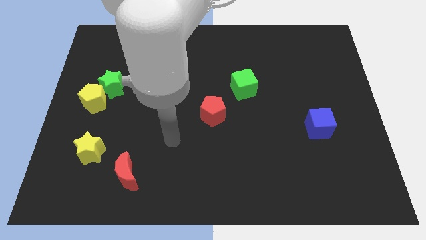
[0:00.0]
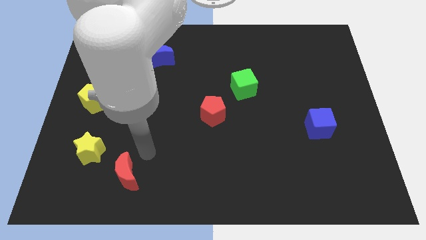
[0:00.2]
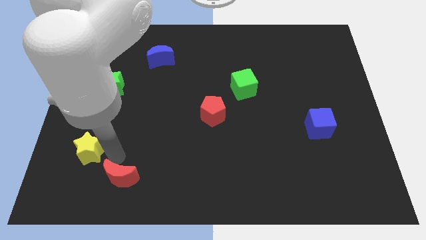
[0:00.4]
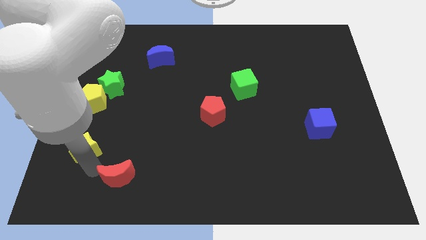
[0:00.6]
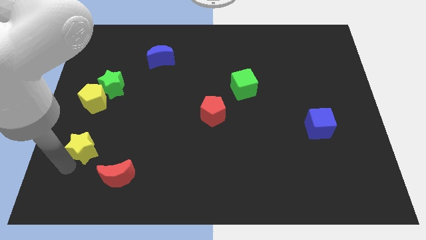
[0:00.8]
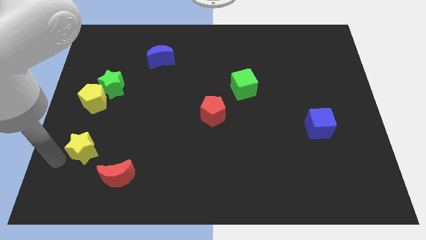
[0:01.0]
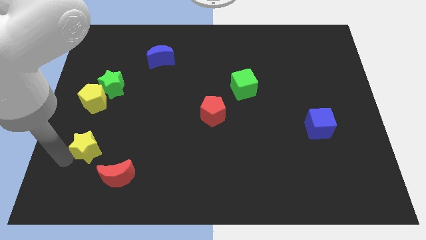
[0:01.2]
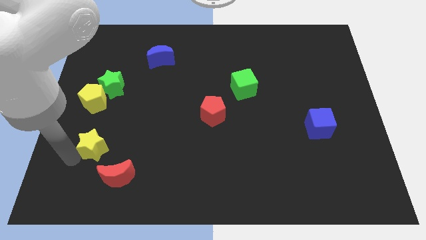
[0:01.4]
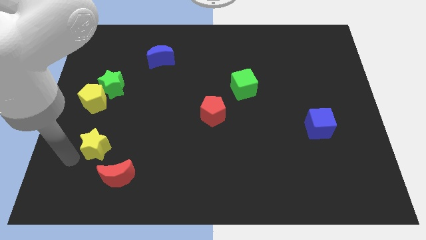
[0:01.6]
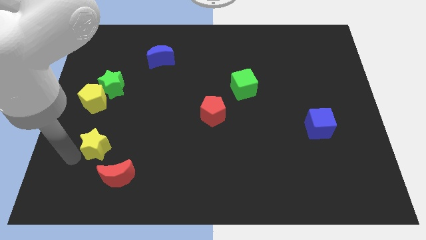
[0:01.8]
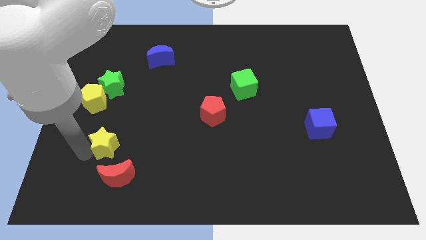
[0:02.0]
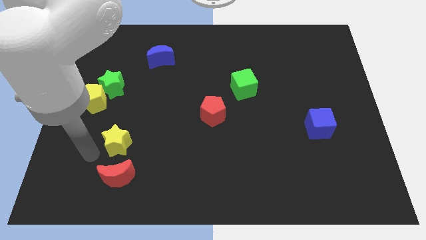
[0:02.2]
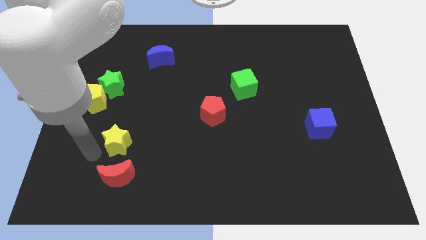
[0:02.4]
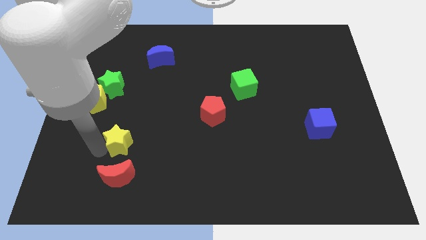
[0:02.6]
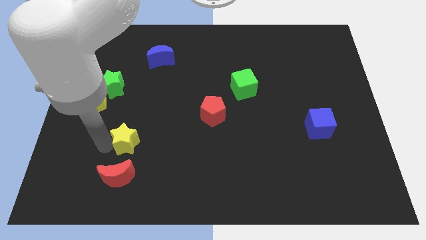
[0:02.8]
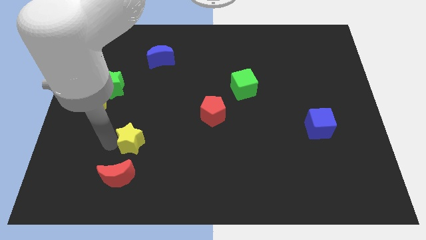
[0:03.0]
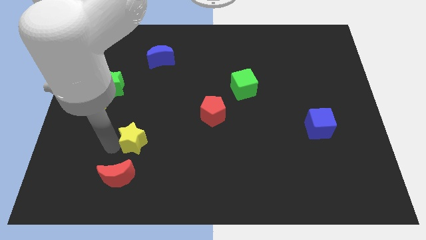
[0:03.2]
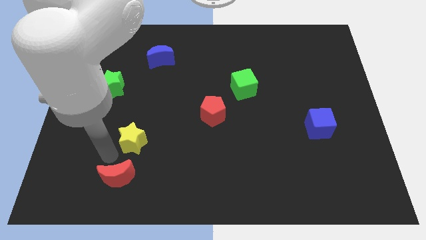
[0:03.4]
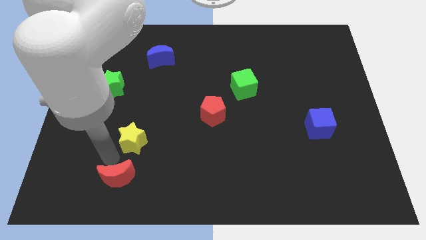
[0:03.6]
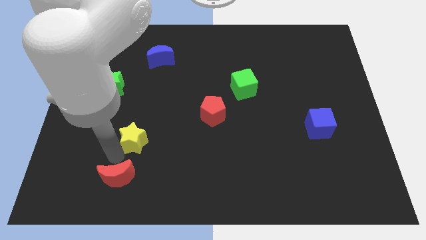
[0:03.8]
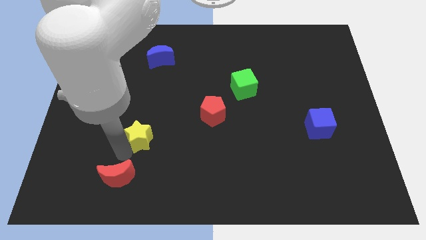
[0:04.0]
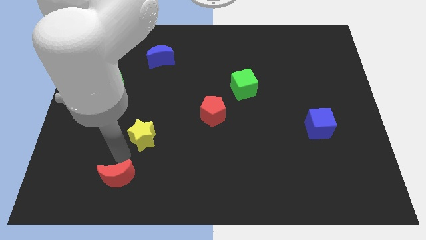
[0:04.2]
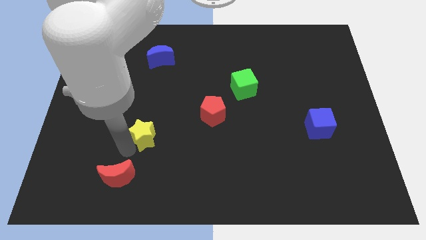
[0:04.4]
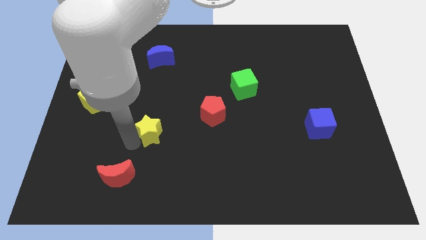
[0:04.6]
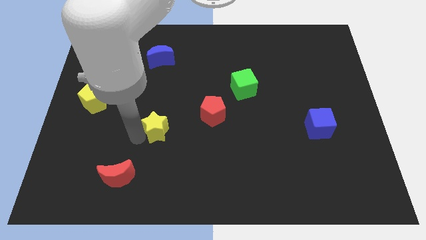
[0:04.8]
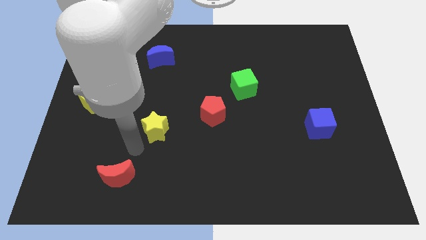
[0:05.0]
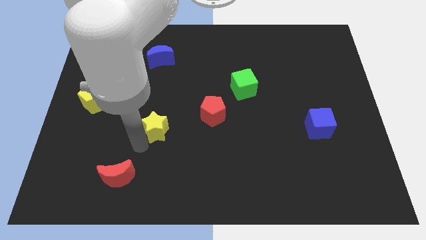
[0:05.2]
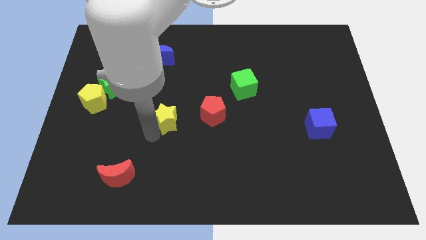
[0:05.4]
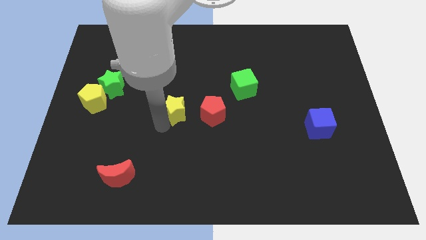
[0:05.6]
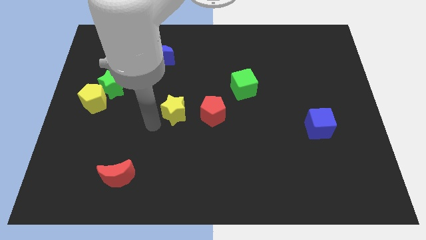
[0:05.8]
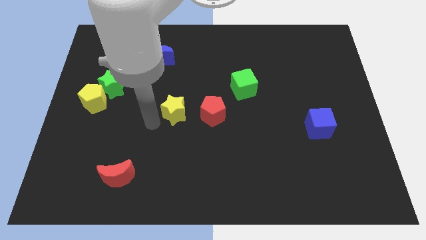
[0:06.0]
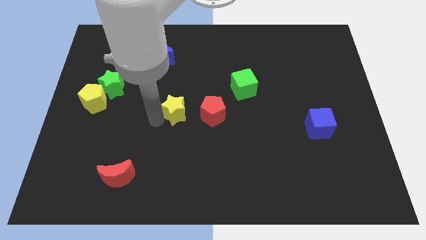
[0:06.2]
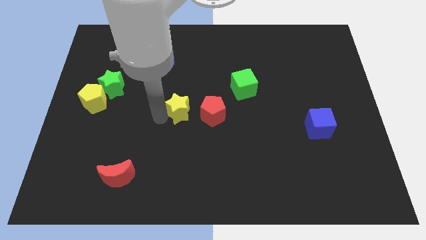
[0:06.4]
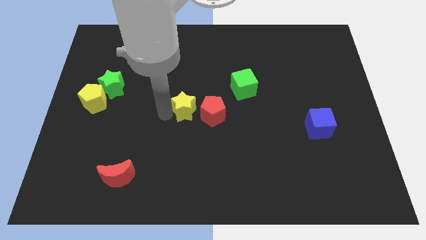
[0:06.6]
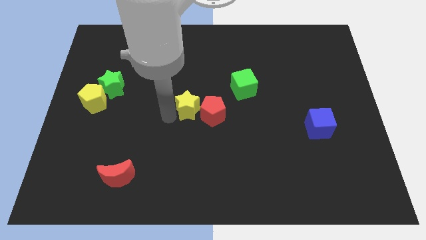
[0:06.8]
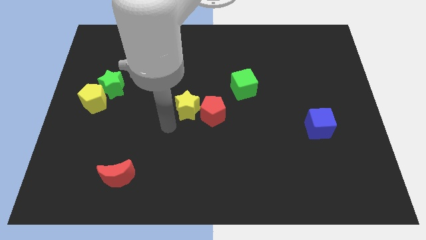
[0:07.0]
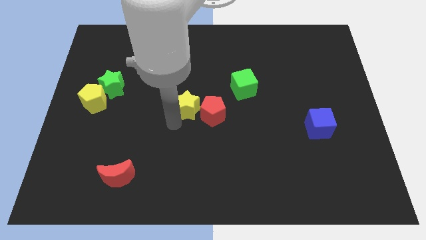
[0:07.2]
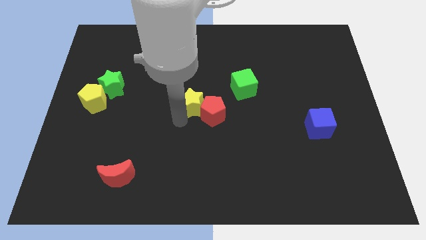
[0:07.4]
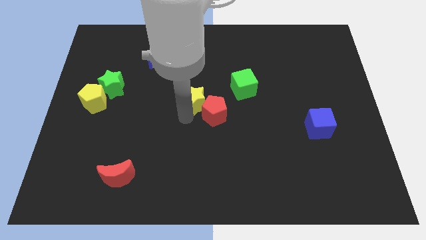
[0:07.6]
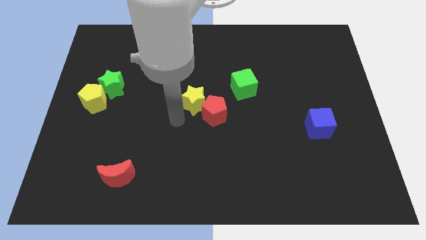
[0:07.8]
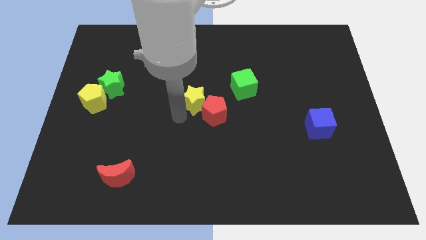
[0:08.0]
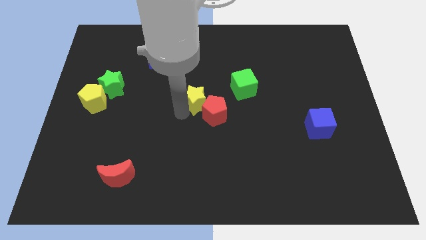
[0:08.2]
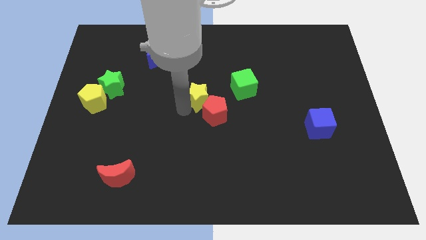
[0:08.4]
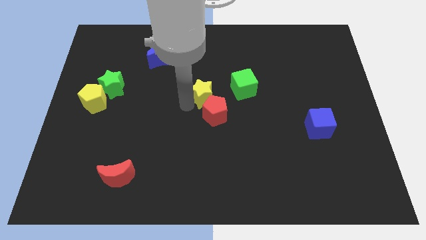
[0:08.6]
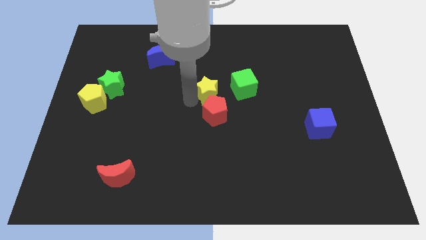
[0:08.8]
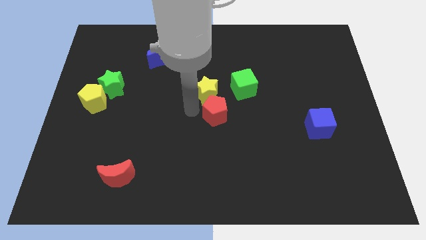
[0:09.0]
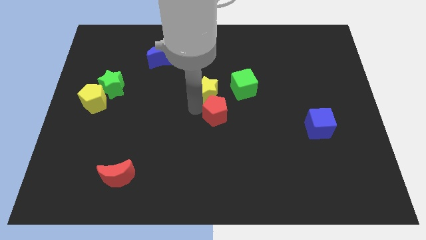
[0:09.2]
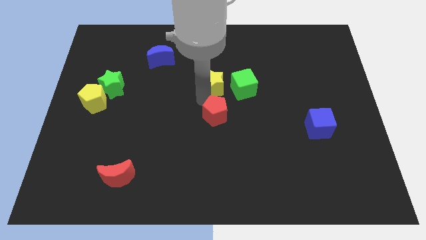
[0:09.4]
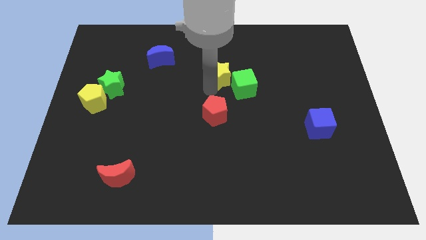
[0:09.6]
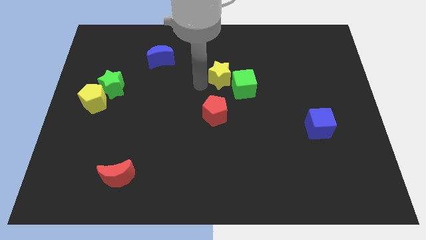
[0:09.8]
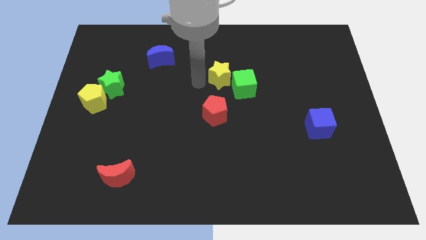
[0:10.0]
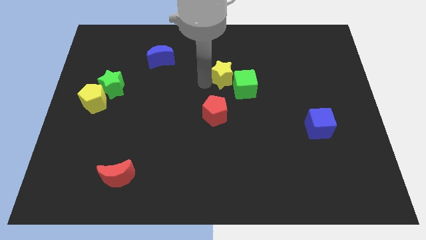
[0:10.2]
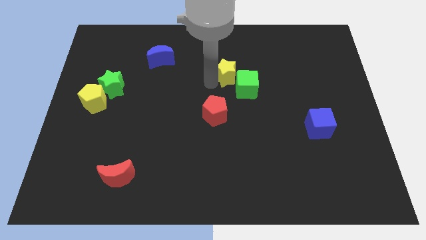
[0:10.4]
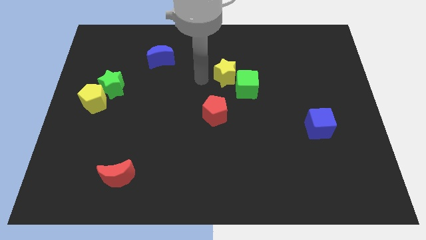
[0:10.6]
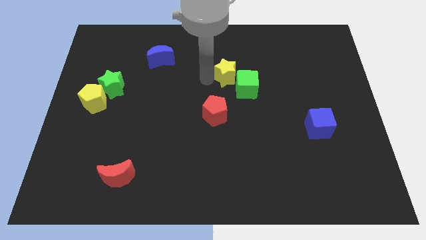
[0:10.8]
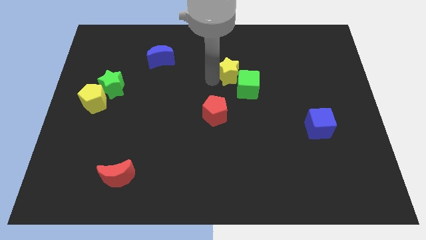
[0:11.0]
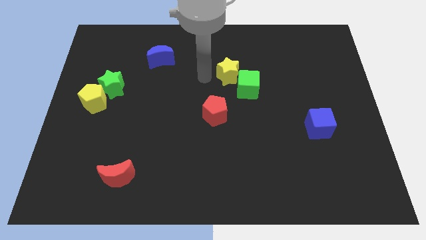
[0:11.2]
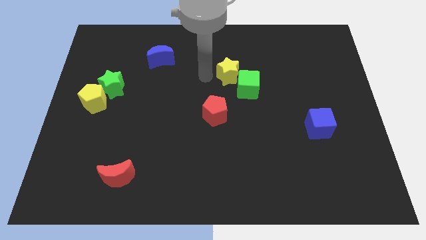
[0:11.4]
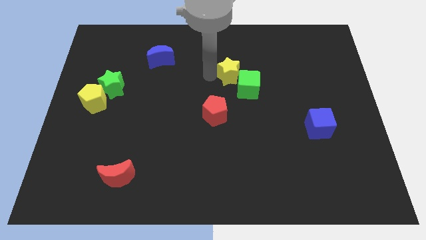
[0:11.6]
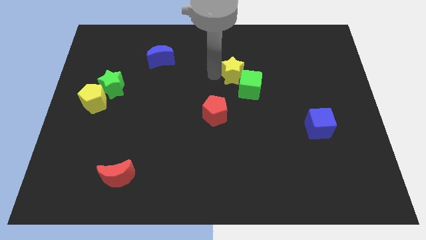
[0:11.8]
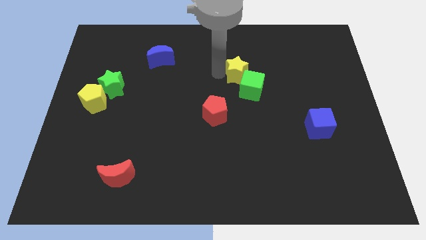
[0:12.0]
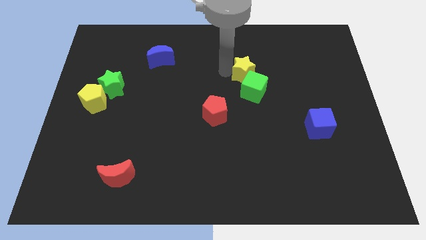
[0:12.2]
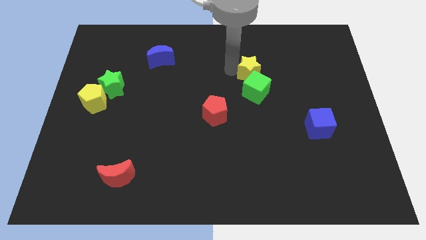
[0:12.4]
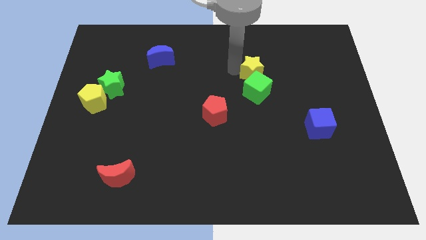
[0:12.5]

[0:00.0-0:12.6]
move the yellow star diagonally up and to the right of the green cube
